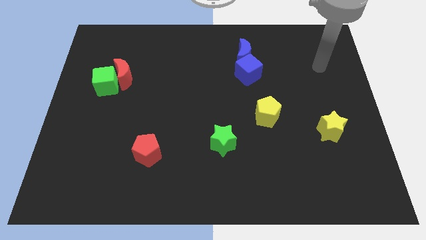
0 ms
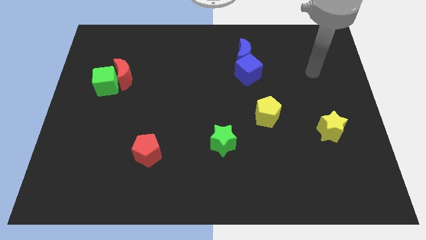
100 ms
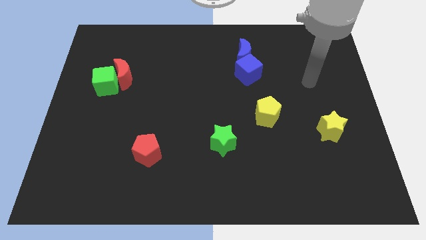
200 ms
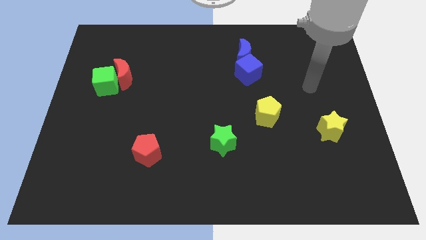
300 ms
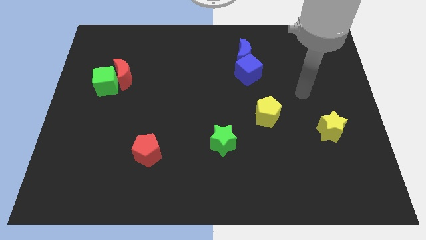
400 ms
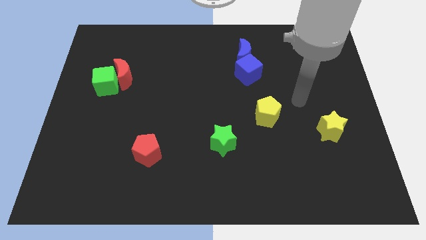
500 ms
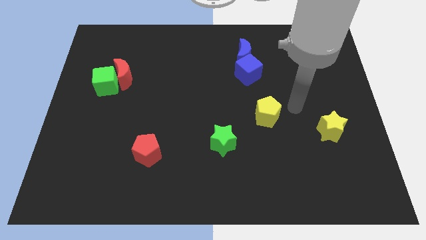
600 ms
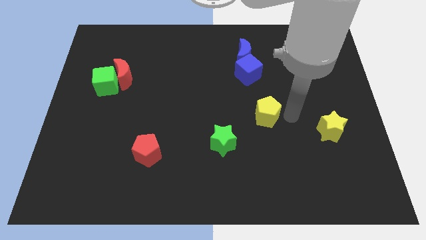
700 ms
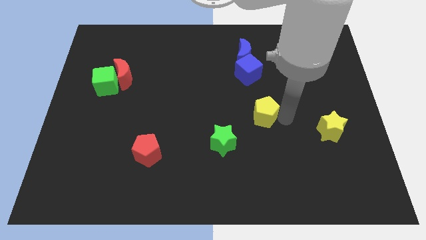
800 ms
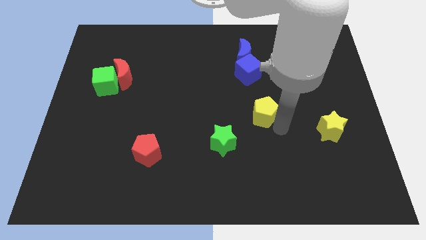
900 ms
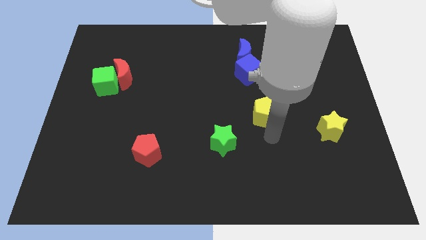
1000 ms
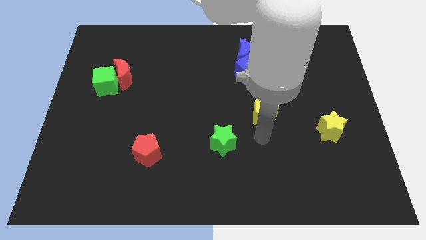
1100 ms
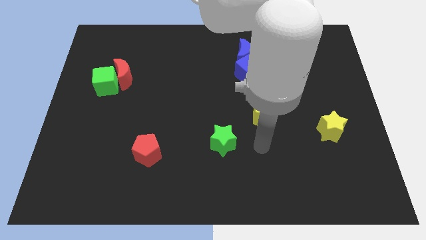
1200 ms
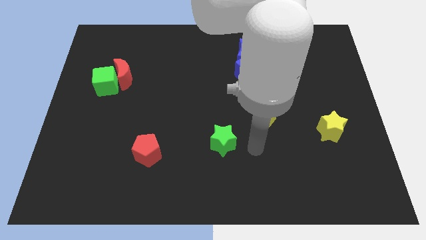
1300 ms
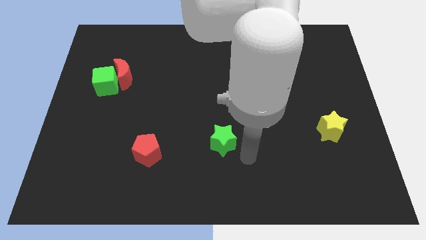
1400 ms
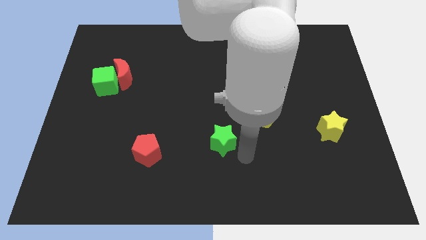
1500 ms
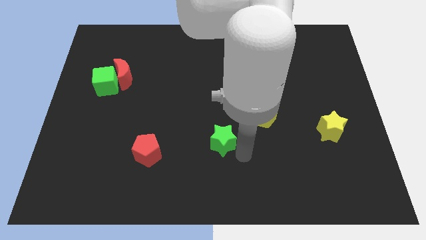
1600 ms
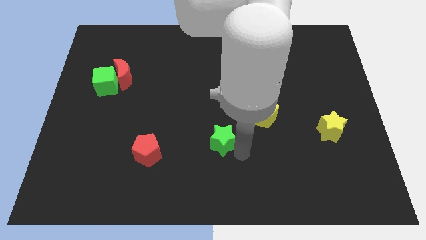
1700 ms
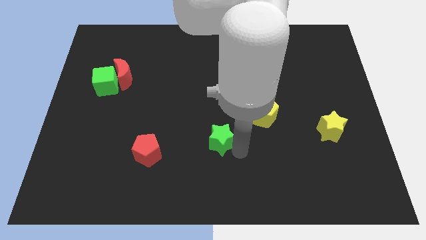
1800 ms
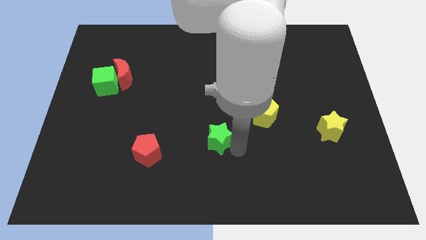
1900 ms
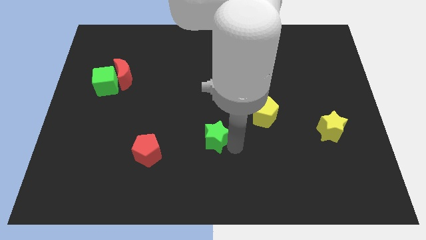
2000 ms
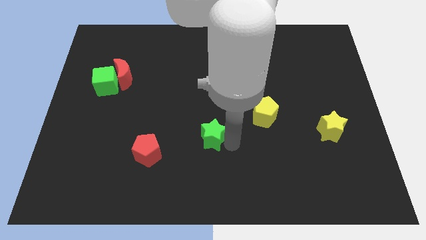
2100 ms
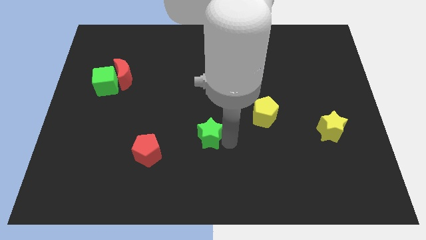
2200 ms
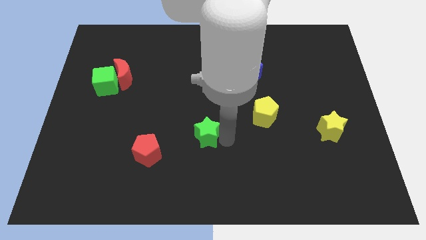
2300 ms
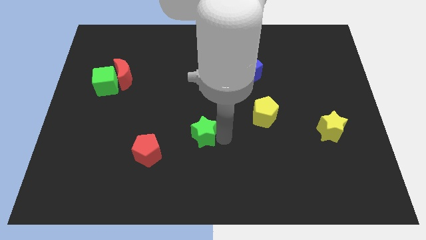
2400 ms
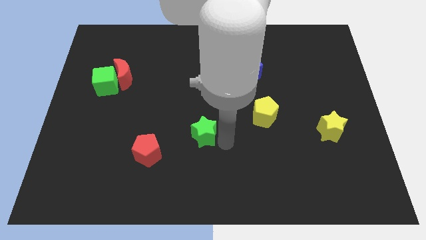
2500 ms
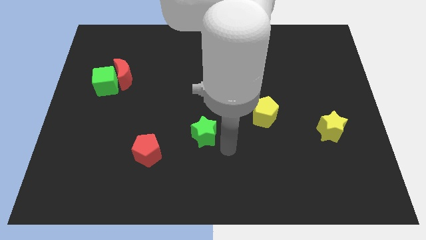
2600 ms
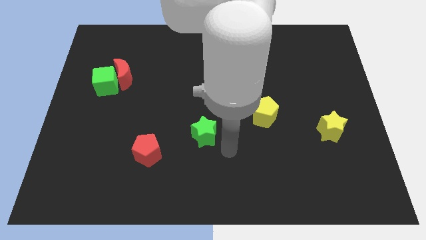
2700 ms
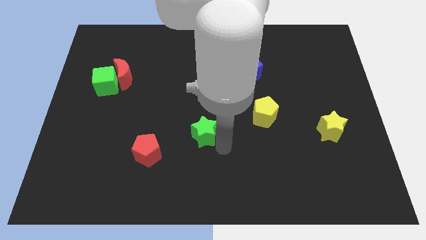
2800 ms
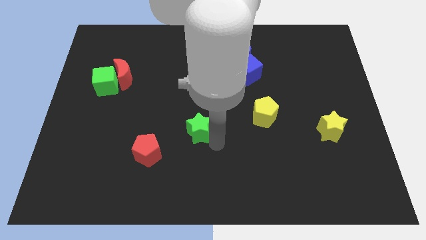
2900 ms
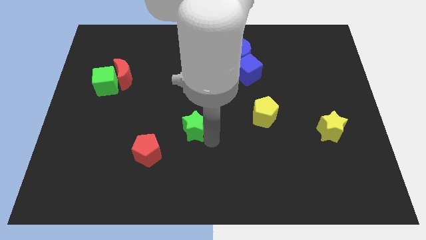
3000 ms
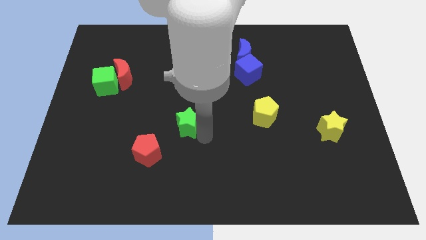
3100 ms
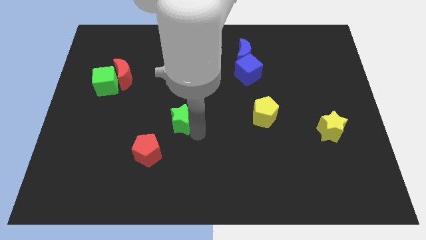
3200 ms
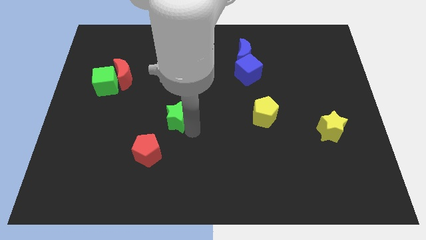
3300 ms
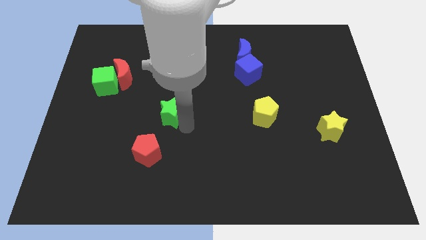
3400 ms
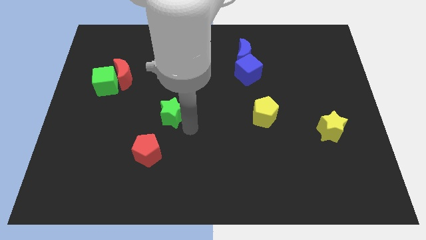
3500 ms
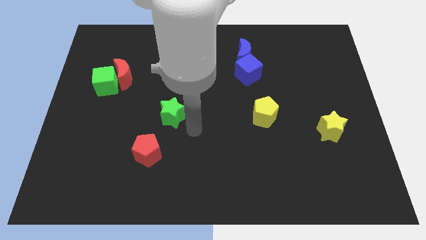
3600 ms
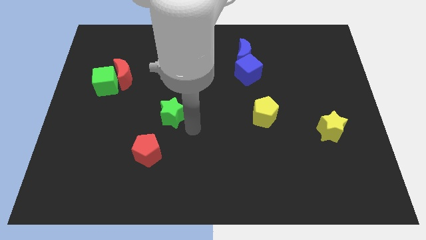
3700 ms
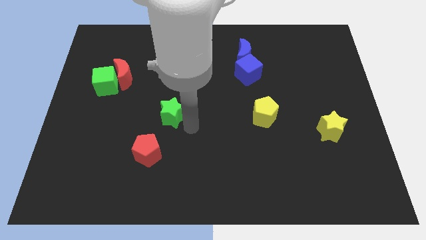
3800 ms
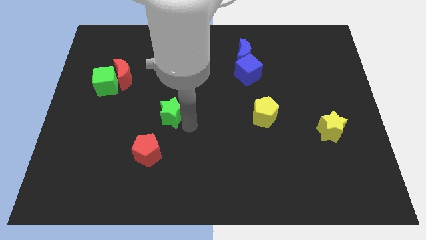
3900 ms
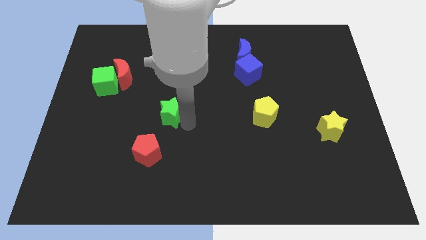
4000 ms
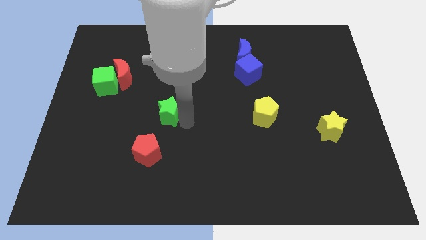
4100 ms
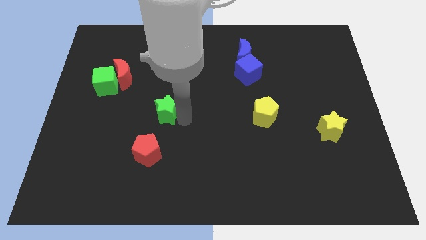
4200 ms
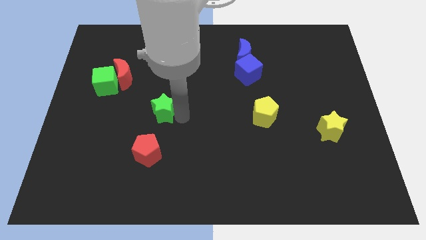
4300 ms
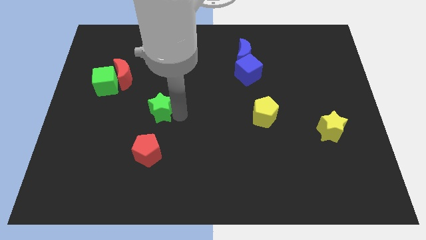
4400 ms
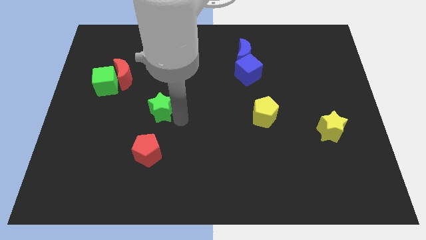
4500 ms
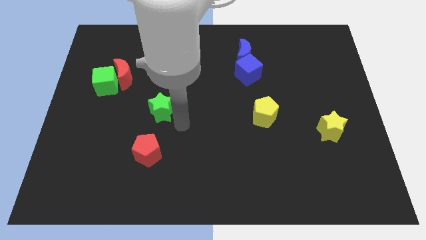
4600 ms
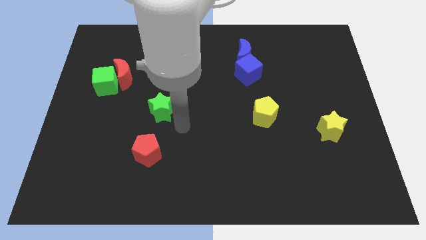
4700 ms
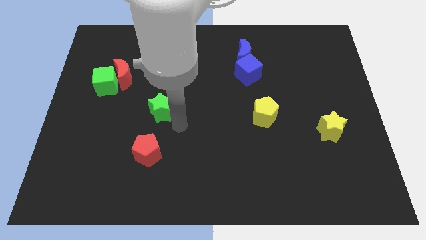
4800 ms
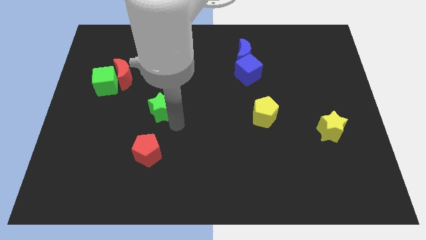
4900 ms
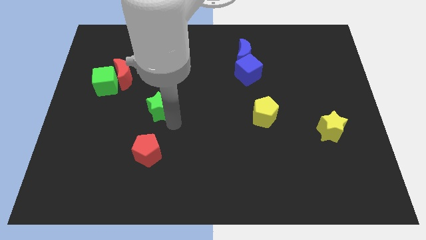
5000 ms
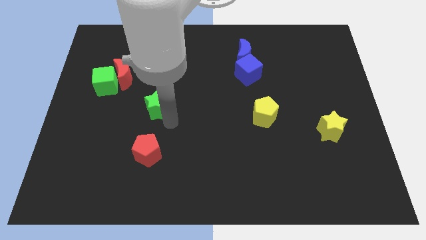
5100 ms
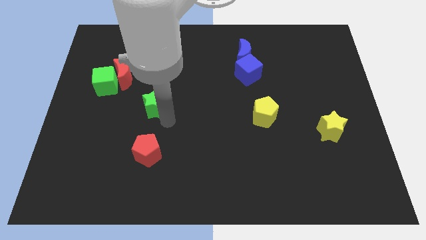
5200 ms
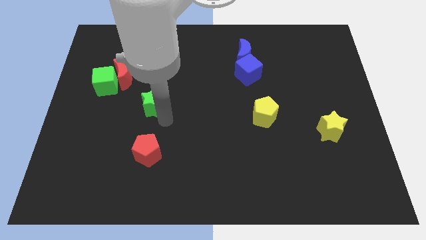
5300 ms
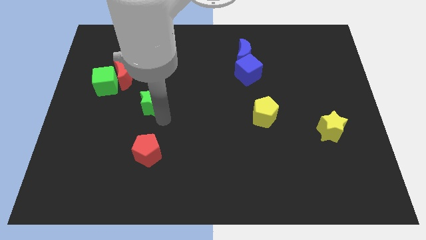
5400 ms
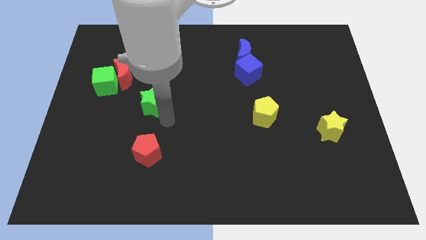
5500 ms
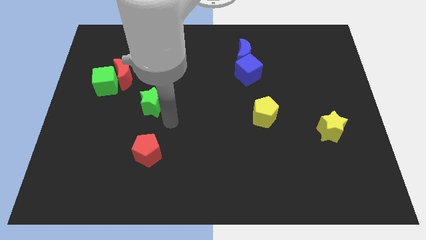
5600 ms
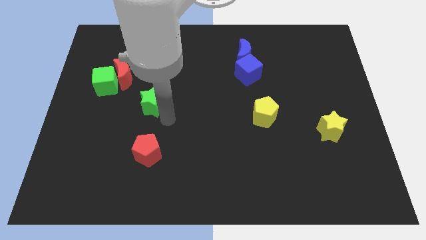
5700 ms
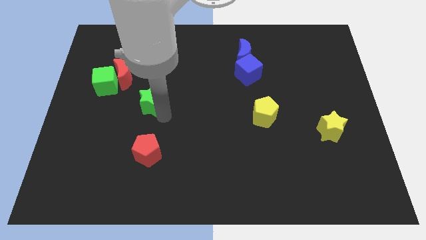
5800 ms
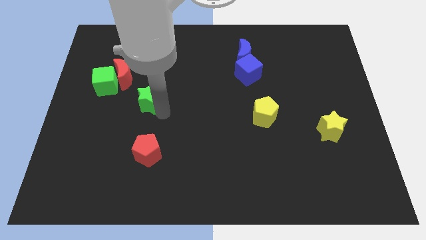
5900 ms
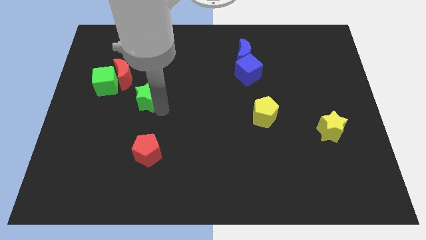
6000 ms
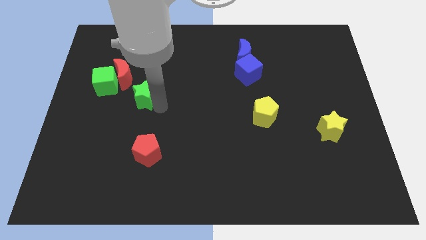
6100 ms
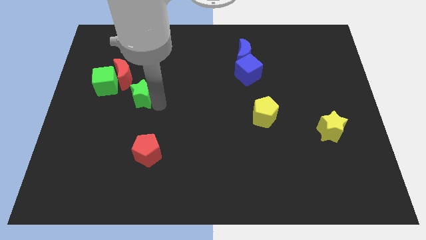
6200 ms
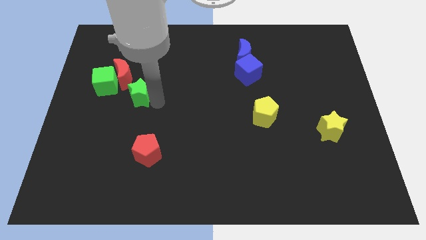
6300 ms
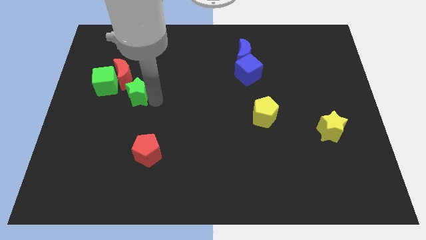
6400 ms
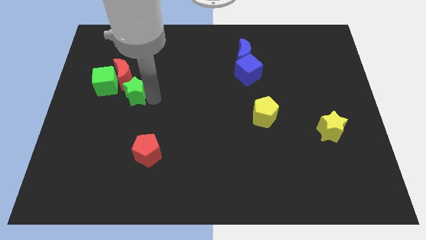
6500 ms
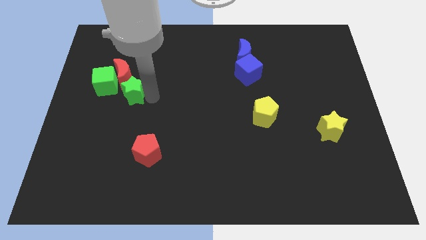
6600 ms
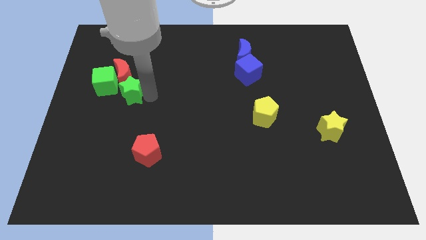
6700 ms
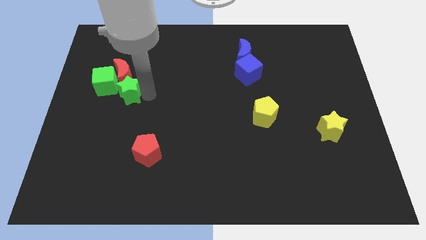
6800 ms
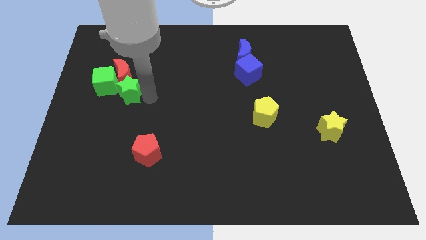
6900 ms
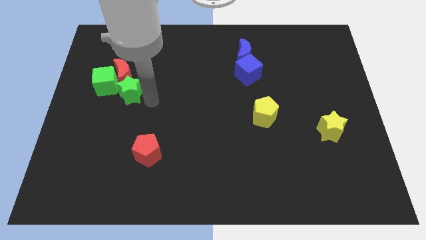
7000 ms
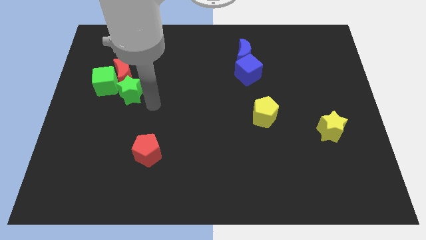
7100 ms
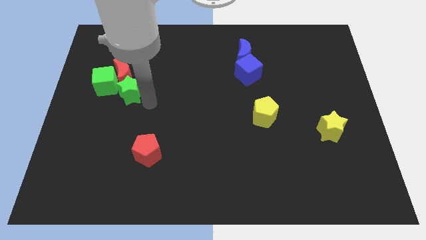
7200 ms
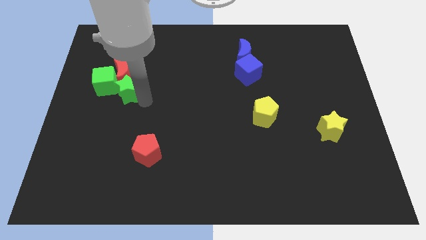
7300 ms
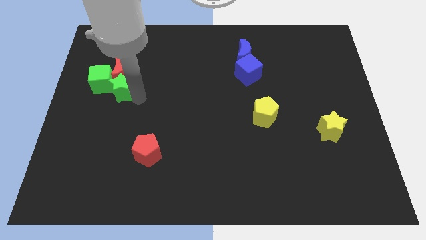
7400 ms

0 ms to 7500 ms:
slide the green star towards the green cube
